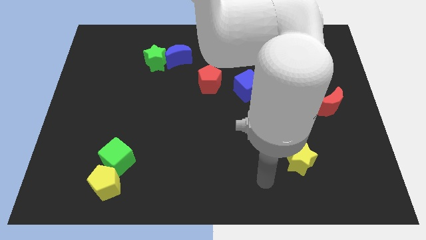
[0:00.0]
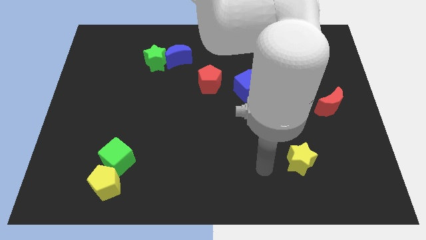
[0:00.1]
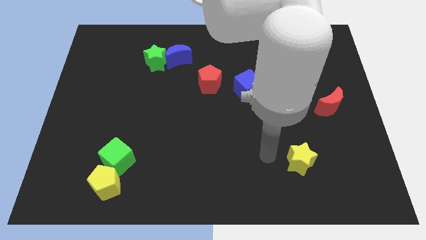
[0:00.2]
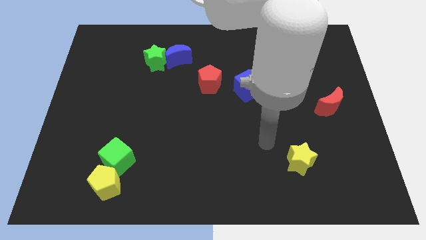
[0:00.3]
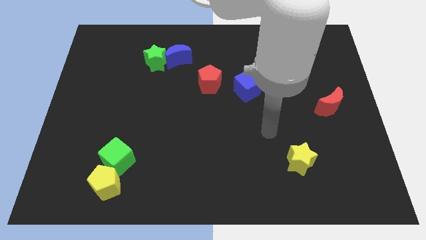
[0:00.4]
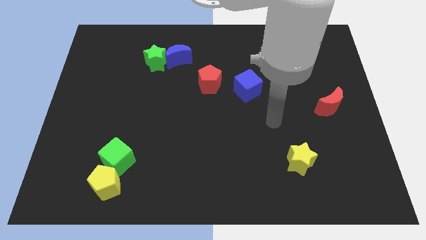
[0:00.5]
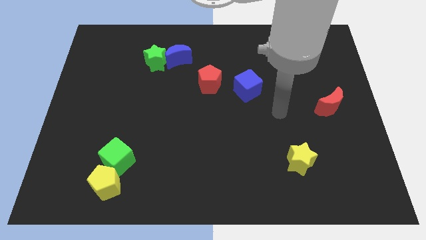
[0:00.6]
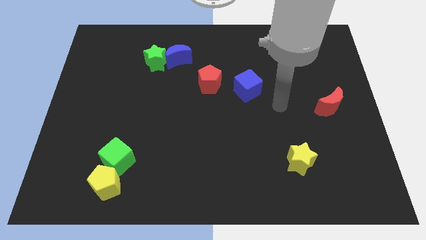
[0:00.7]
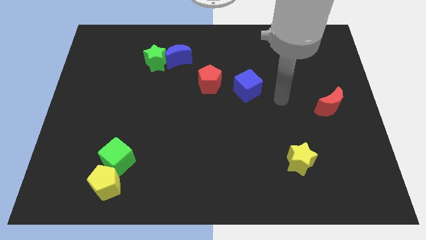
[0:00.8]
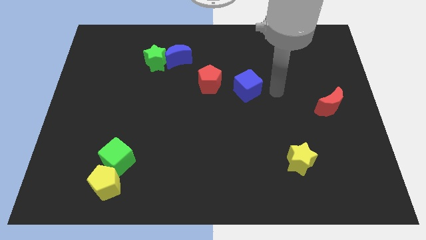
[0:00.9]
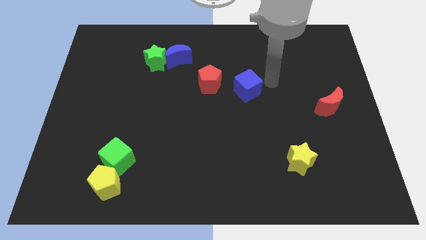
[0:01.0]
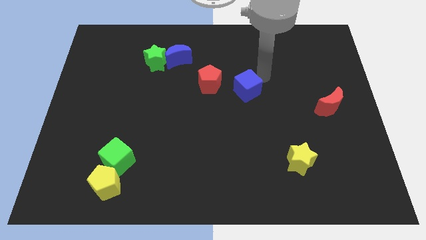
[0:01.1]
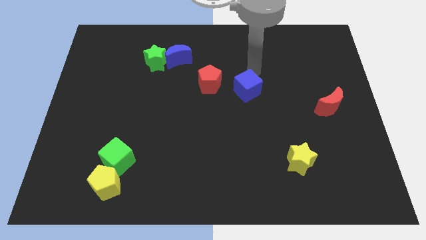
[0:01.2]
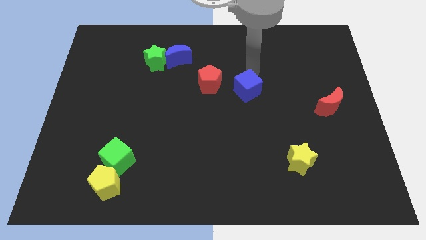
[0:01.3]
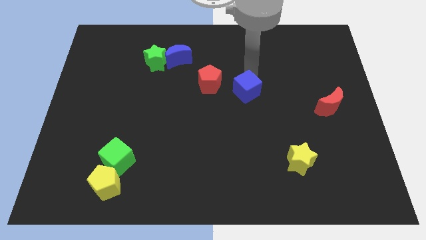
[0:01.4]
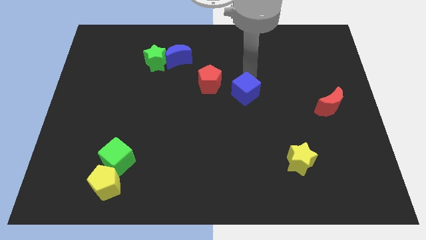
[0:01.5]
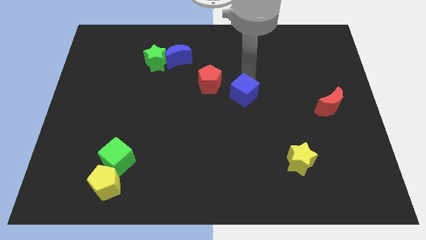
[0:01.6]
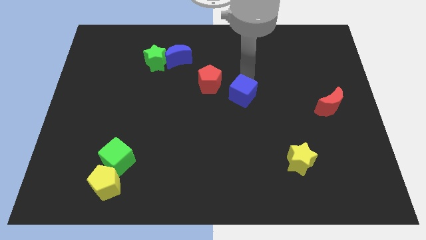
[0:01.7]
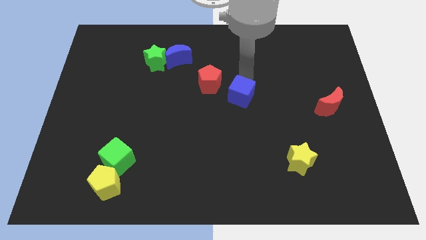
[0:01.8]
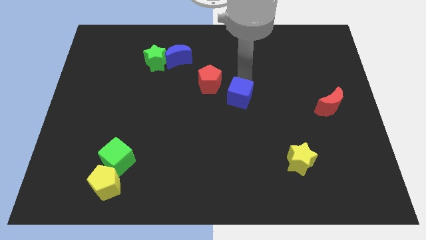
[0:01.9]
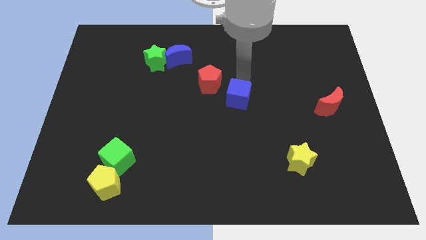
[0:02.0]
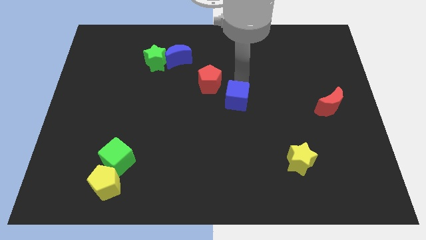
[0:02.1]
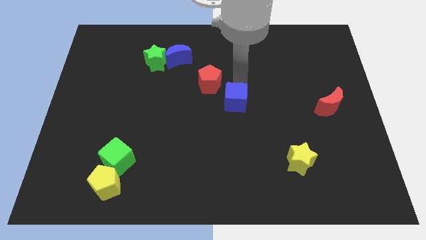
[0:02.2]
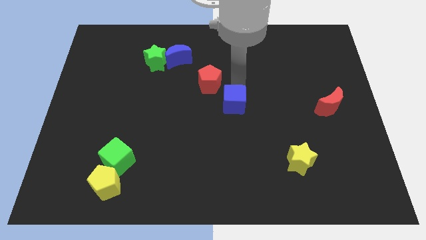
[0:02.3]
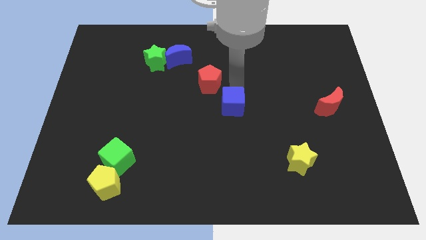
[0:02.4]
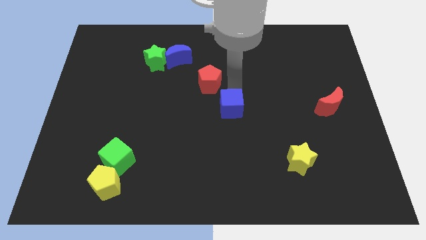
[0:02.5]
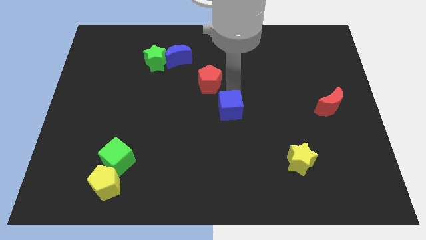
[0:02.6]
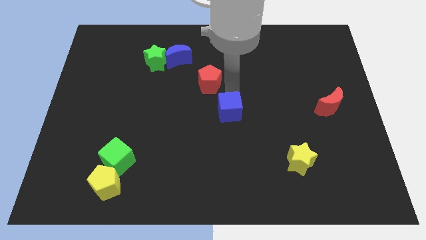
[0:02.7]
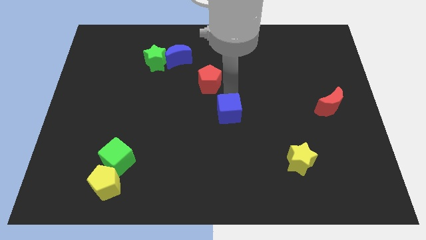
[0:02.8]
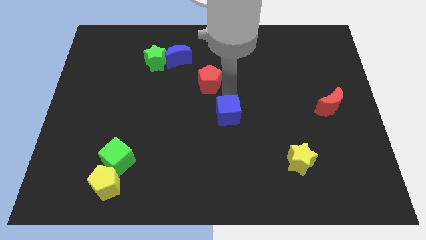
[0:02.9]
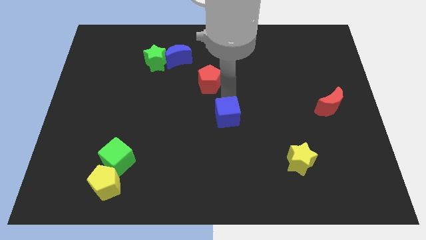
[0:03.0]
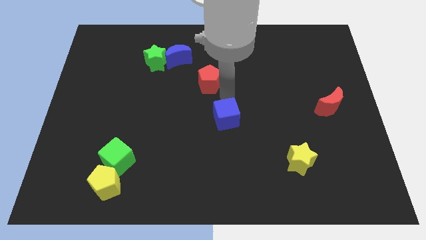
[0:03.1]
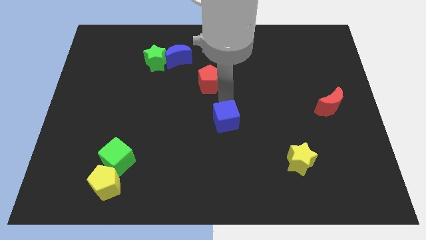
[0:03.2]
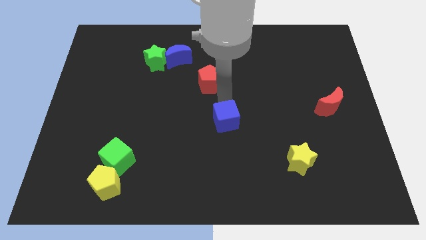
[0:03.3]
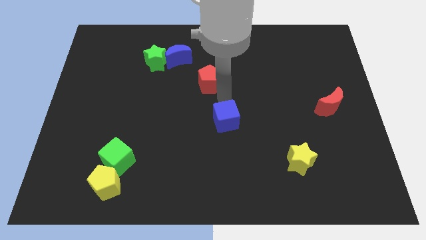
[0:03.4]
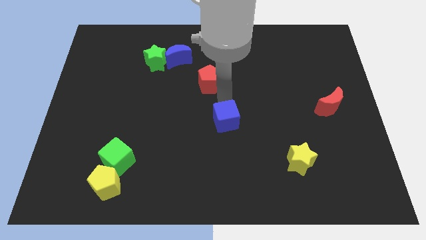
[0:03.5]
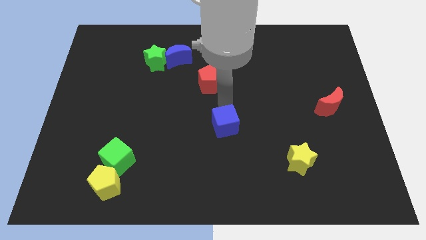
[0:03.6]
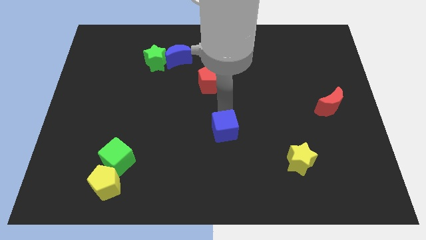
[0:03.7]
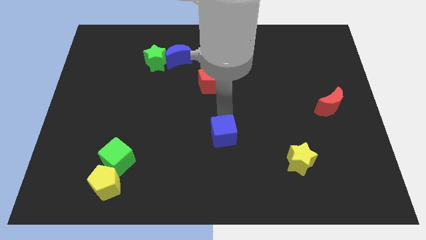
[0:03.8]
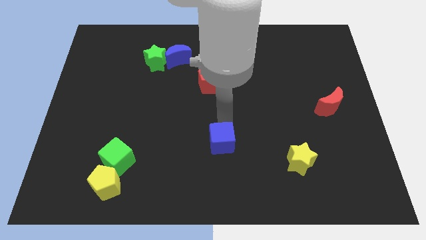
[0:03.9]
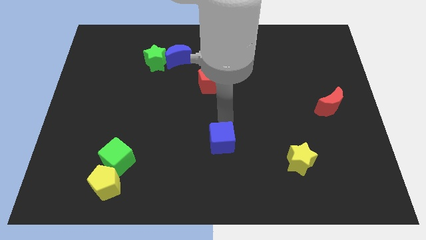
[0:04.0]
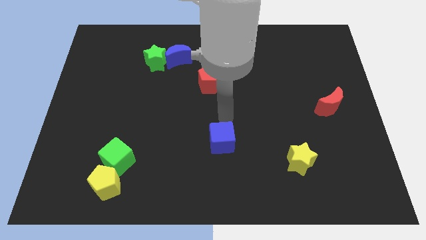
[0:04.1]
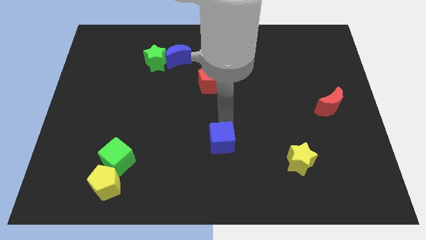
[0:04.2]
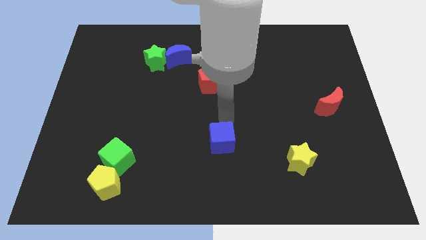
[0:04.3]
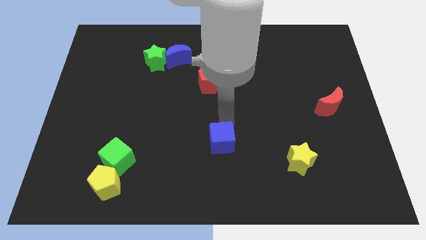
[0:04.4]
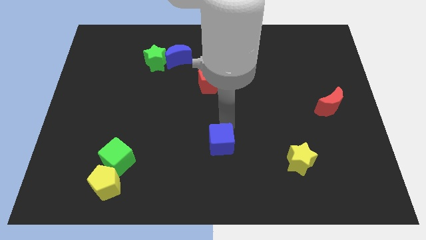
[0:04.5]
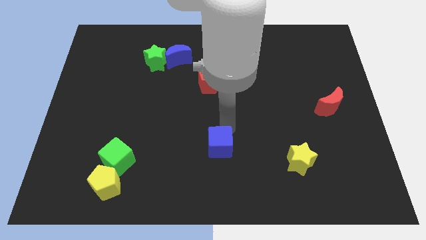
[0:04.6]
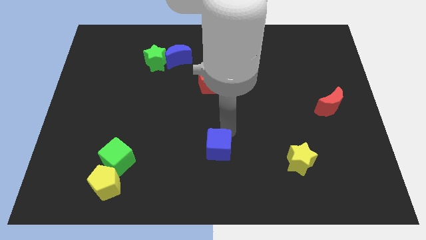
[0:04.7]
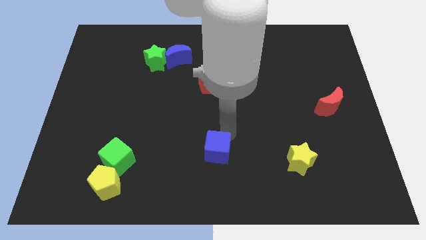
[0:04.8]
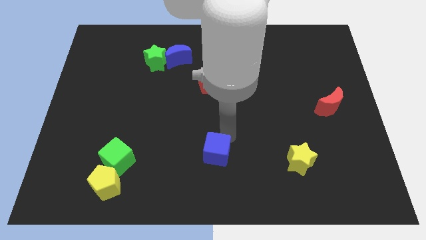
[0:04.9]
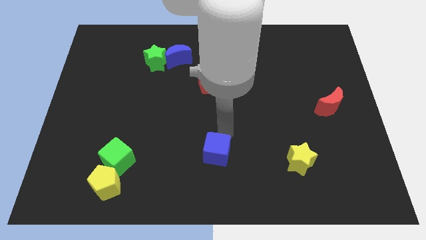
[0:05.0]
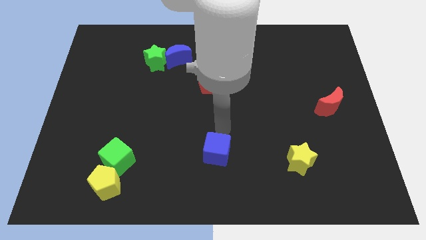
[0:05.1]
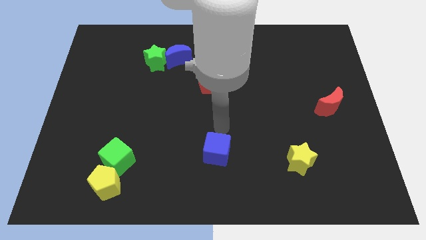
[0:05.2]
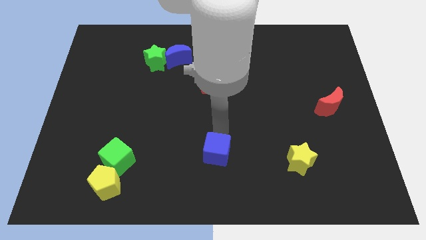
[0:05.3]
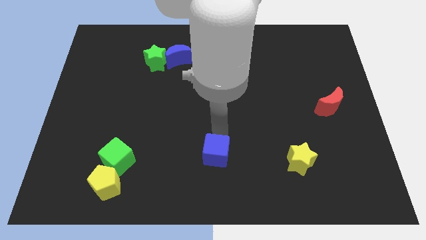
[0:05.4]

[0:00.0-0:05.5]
push the blue cube to the bottom
